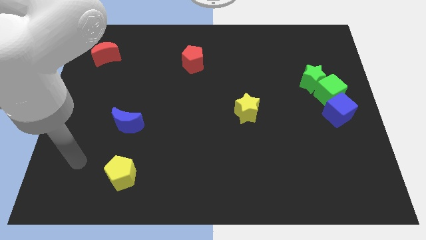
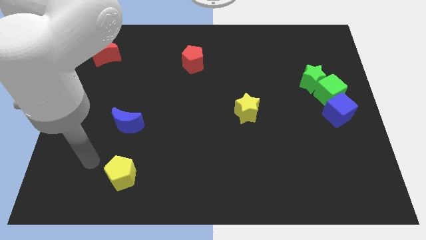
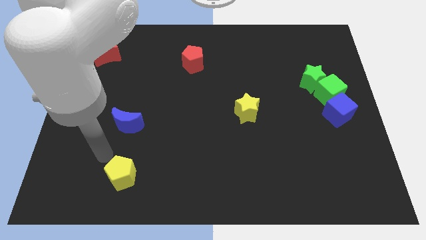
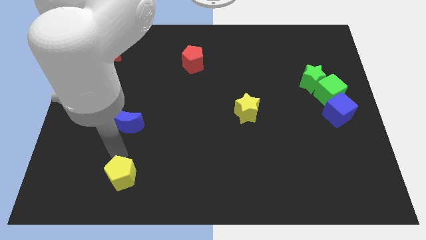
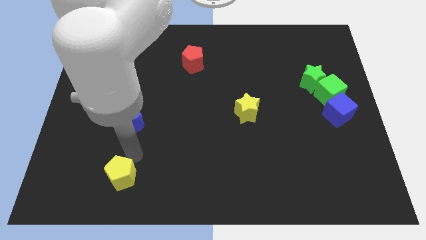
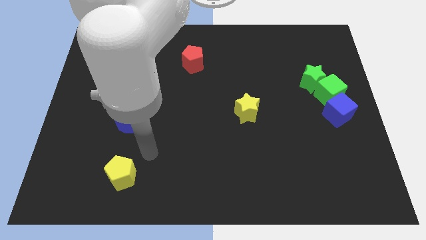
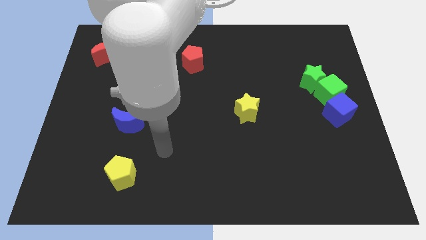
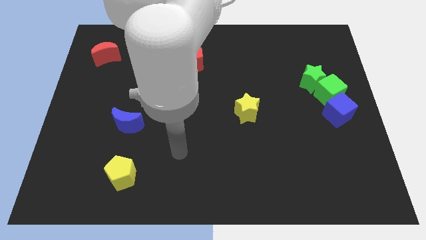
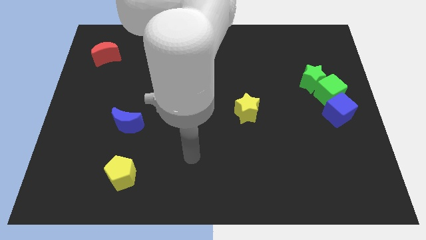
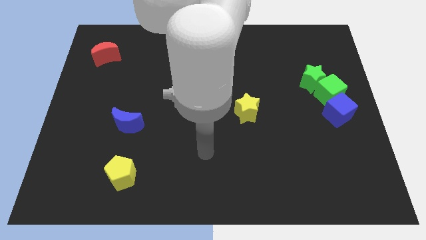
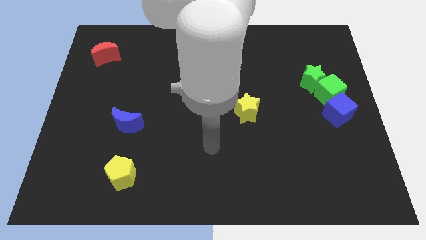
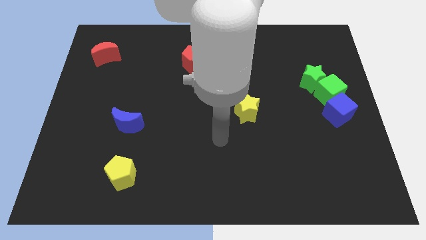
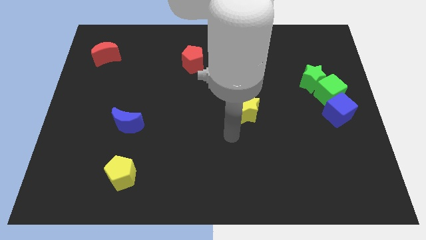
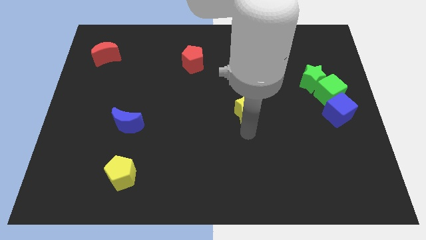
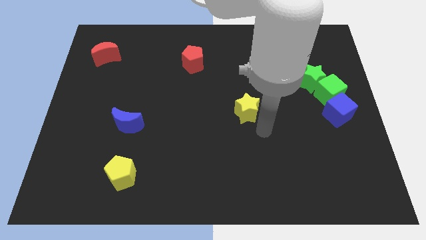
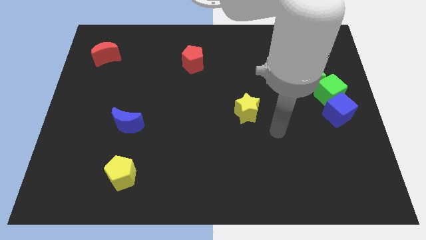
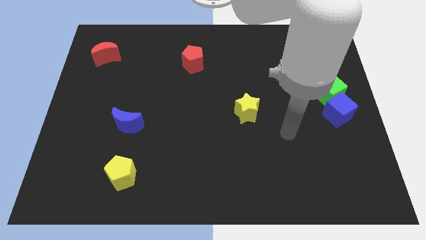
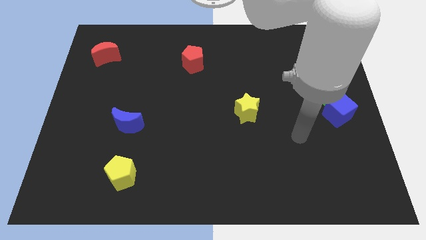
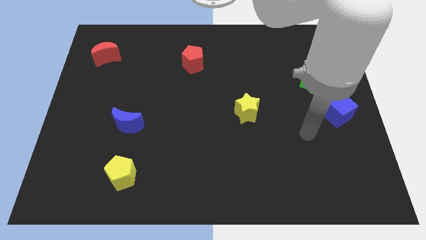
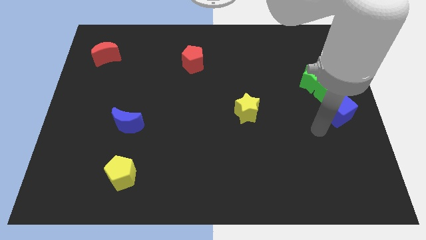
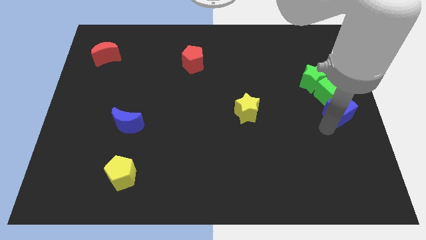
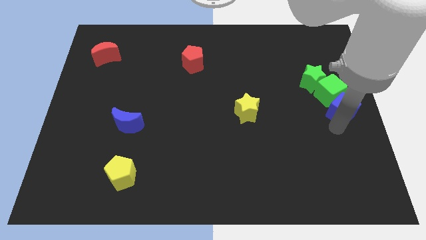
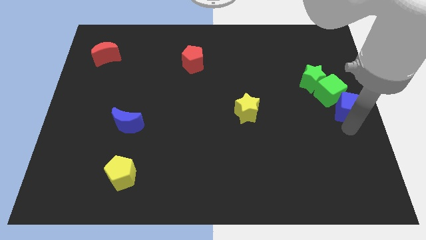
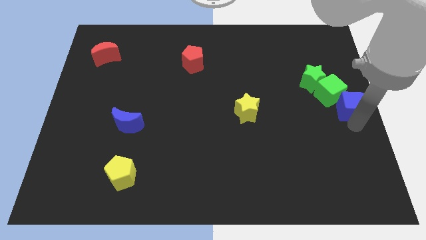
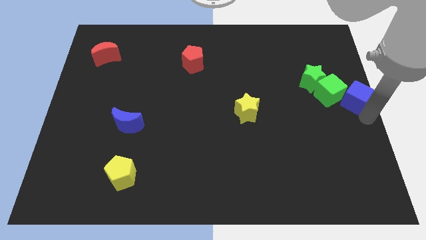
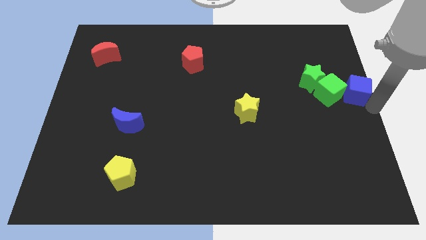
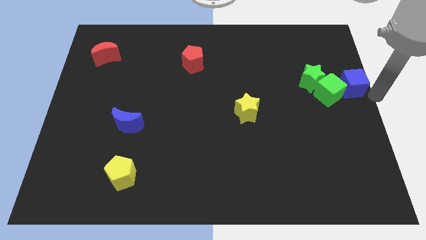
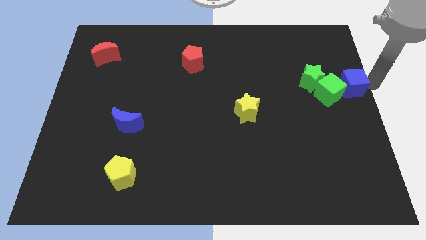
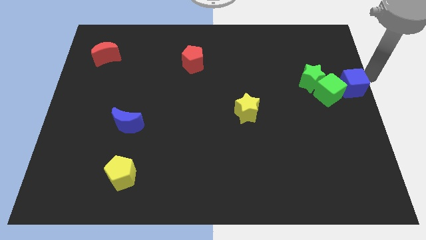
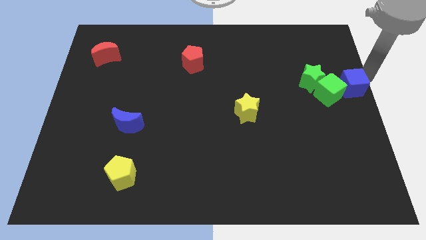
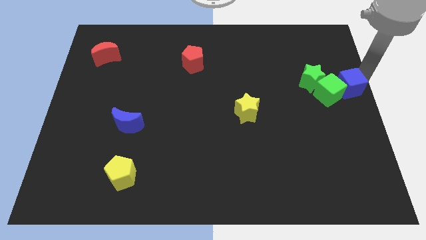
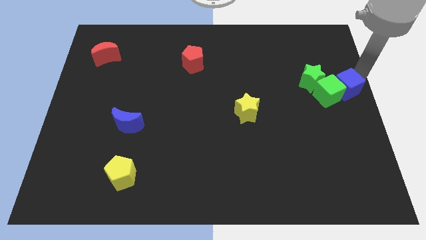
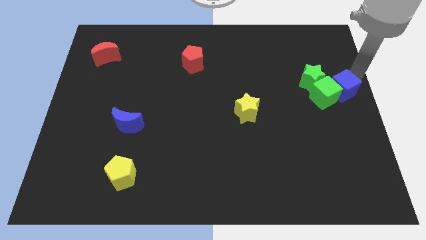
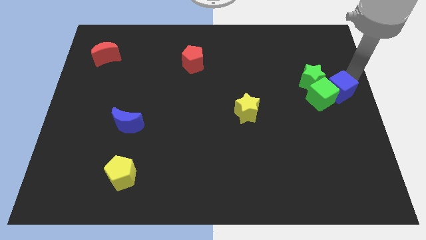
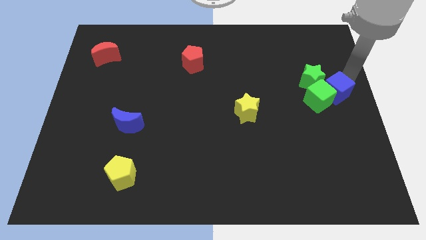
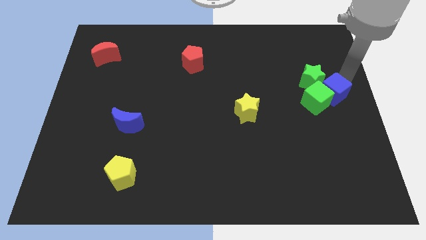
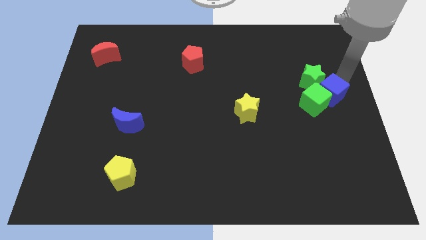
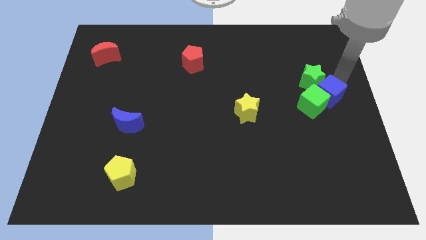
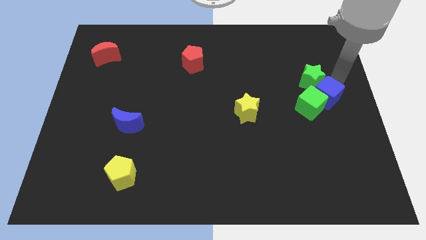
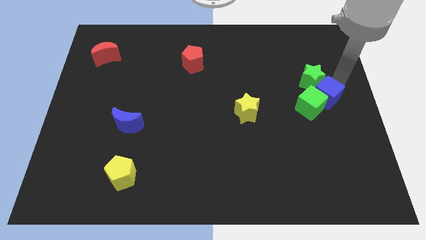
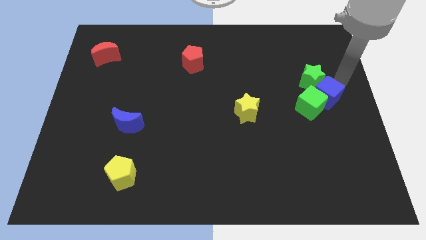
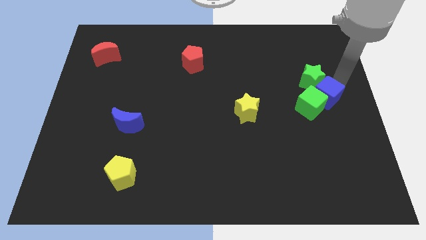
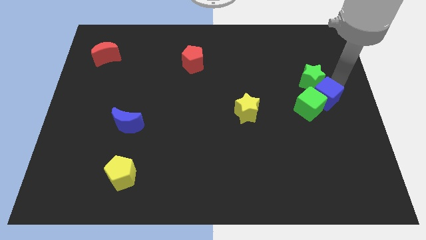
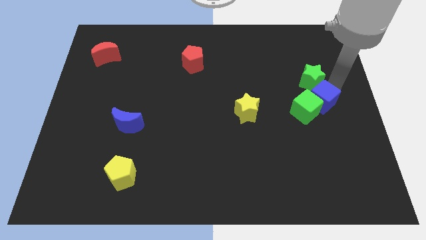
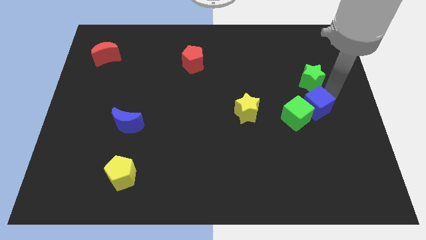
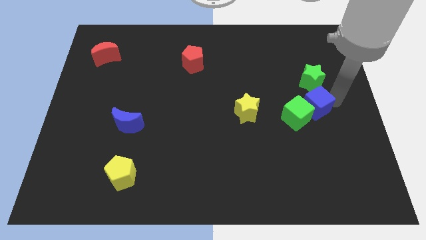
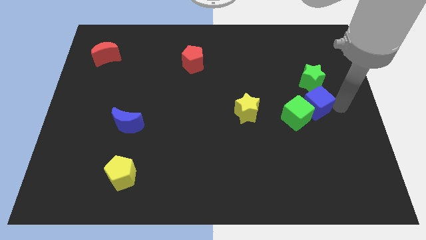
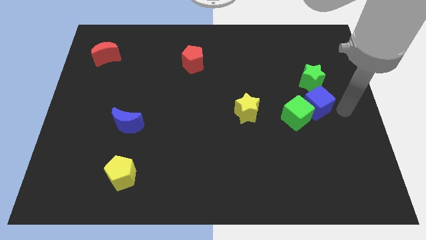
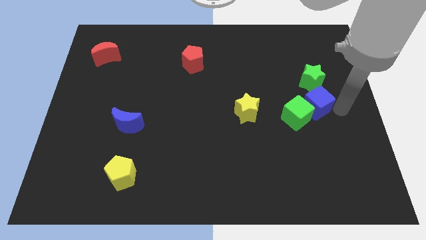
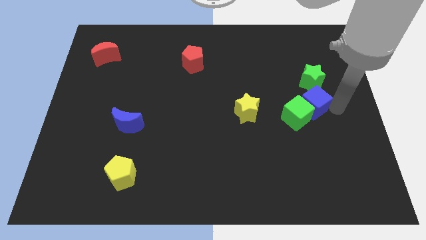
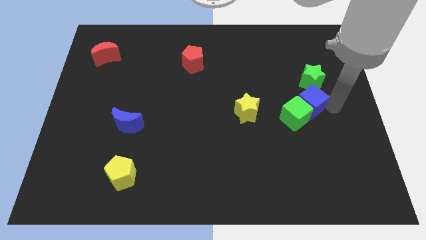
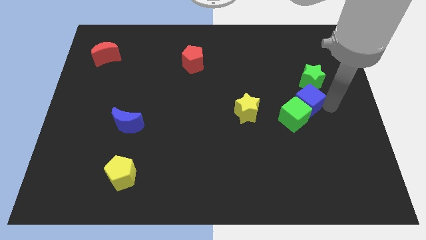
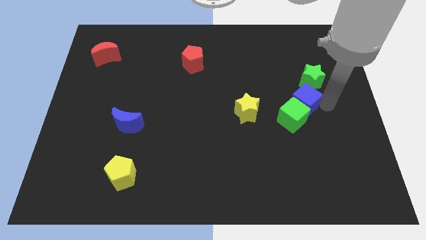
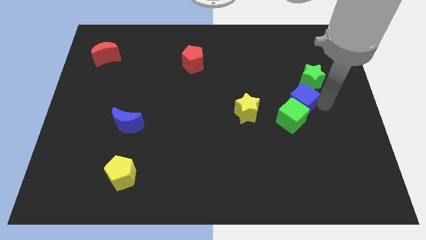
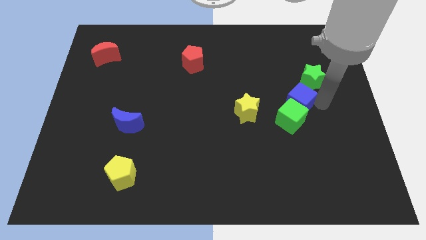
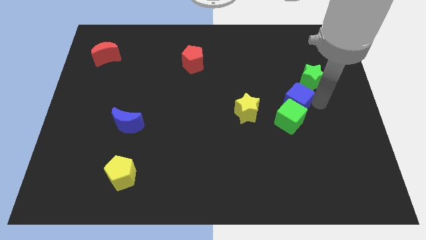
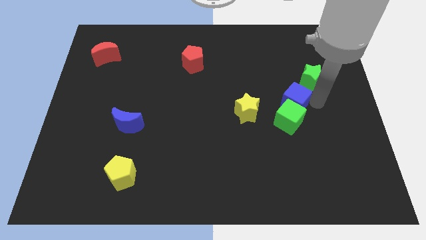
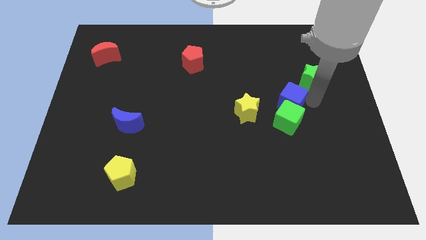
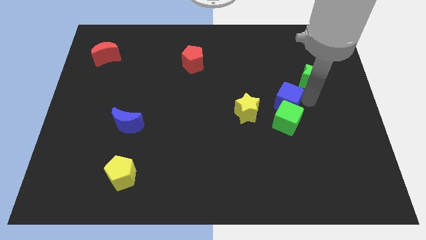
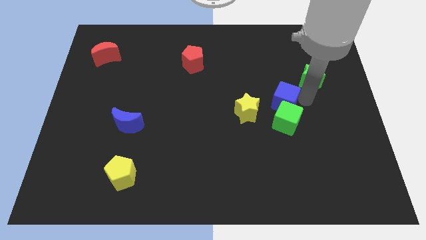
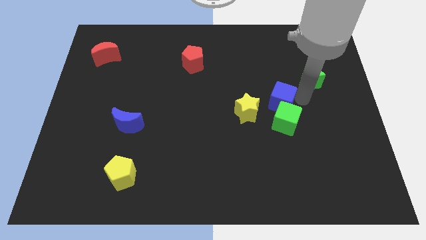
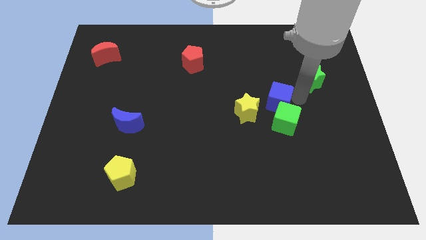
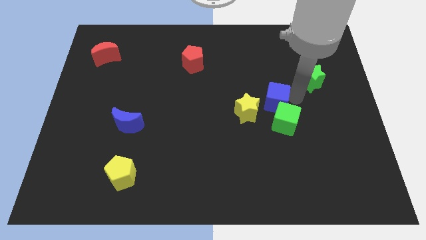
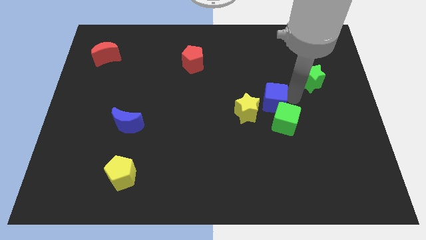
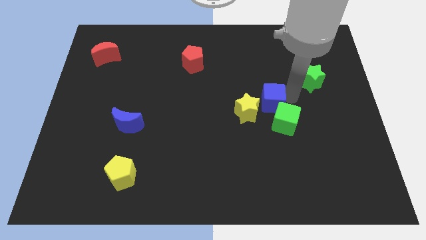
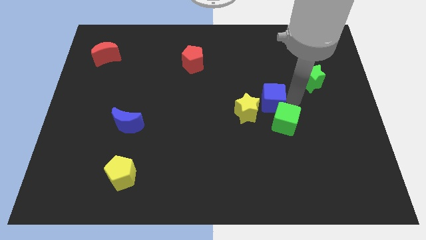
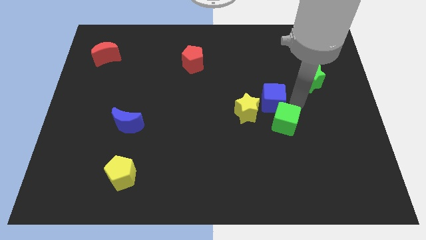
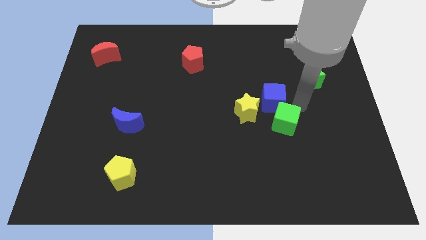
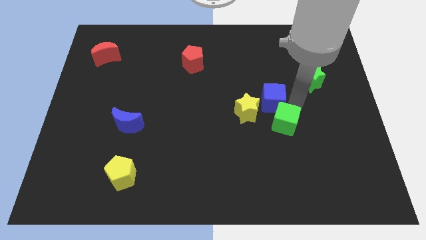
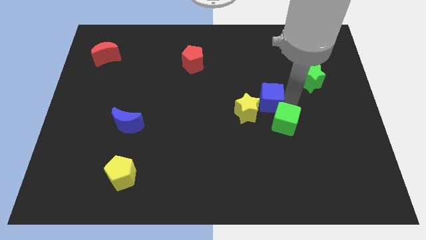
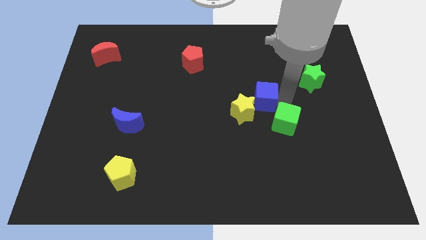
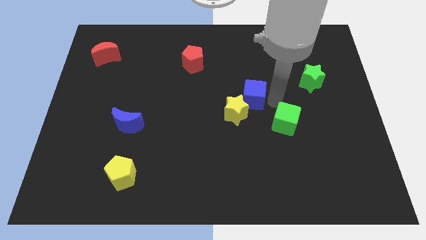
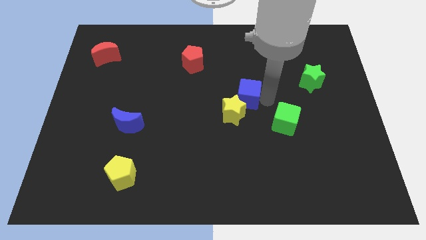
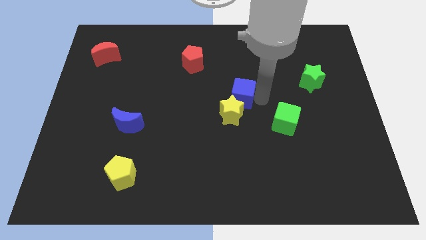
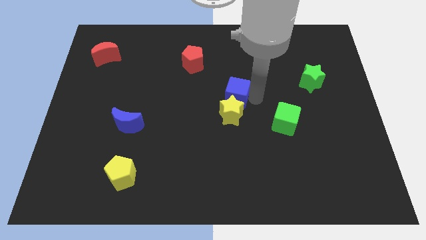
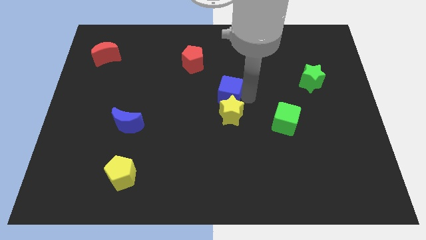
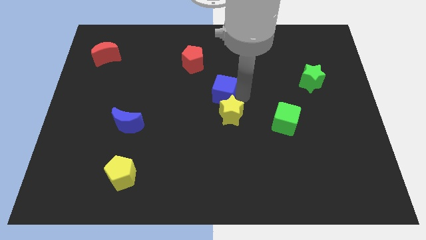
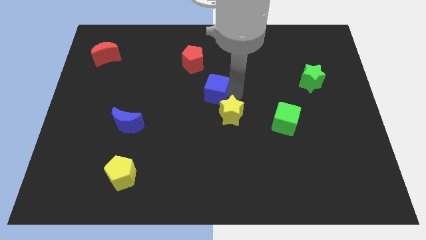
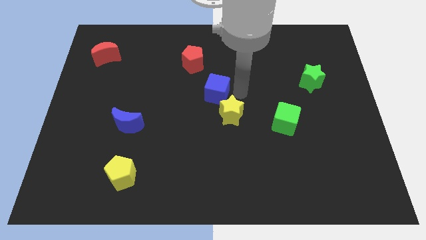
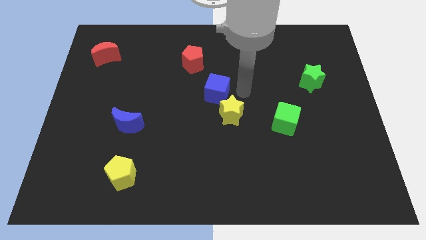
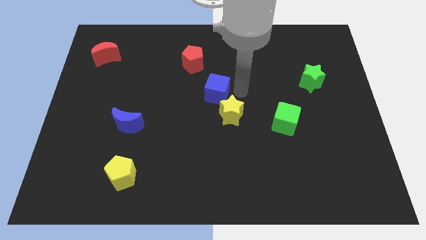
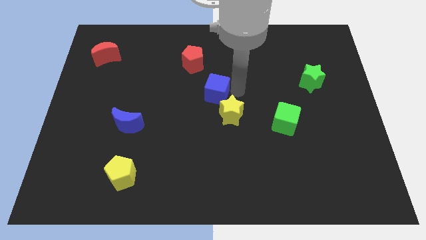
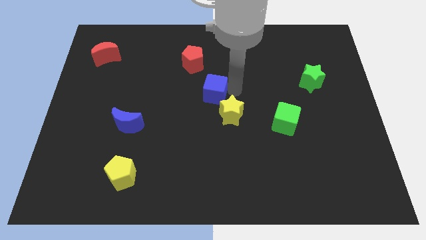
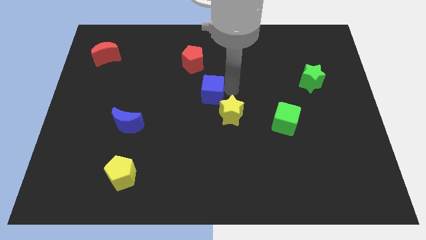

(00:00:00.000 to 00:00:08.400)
put the blue cube to the bottom side of the red pentagon
